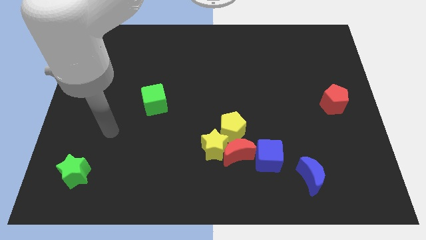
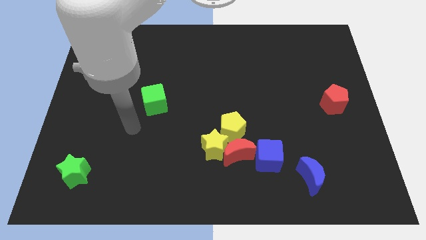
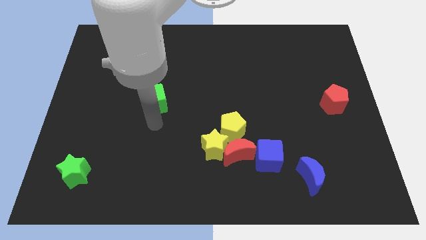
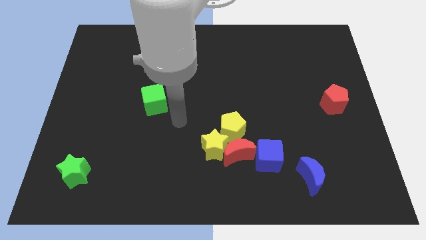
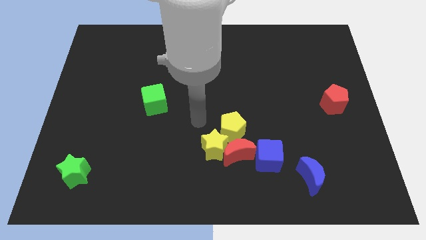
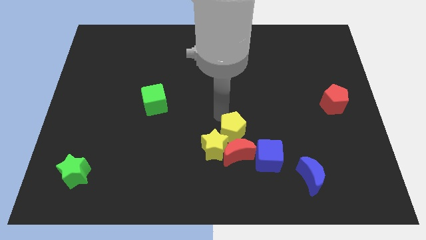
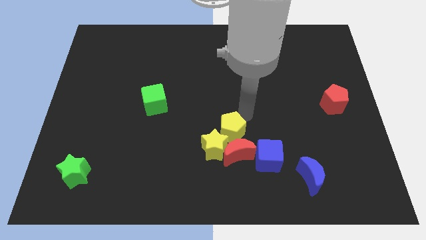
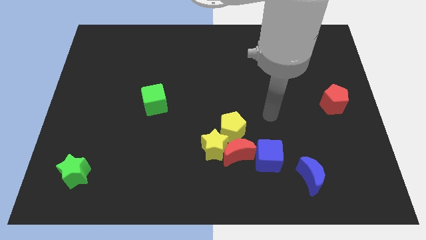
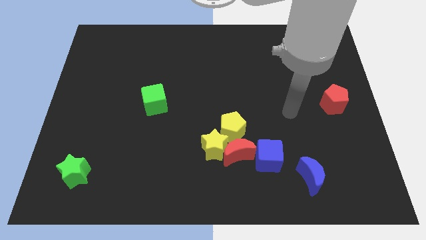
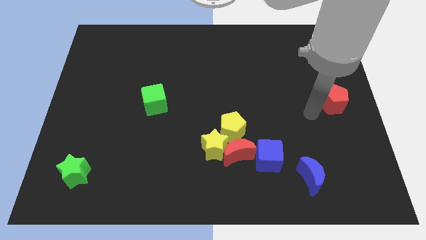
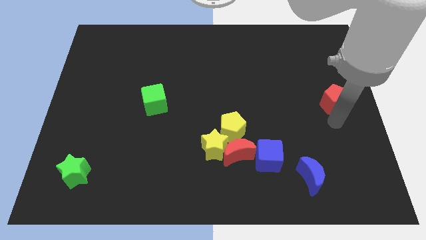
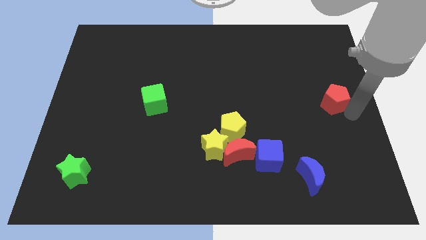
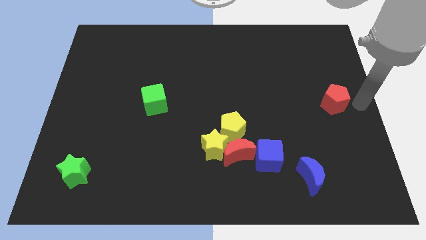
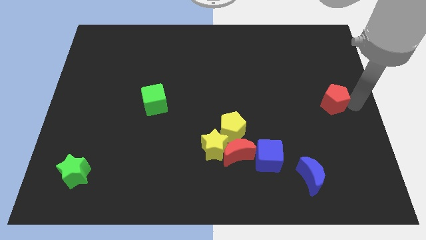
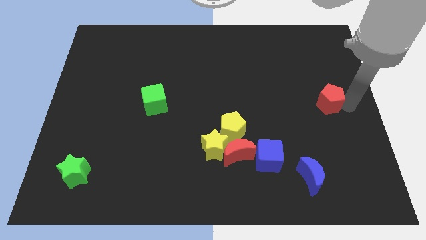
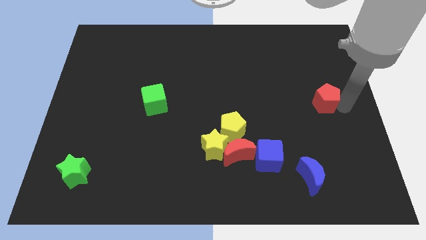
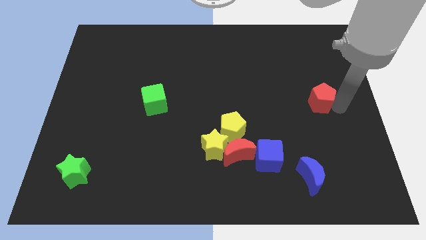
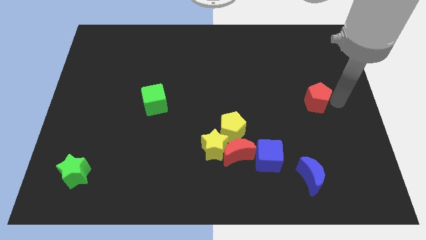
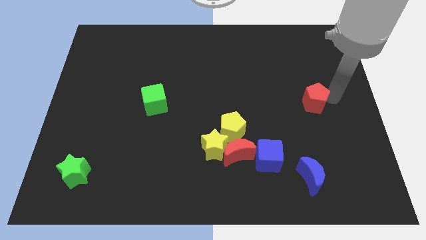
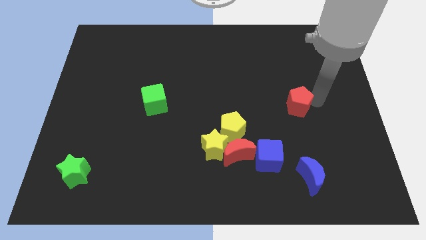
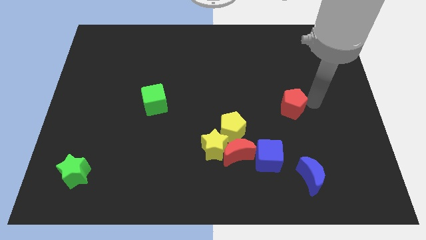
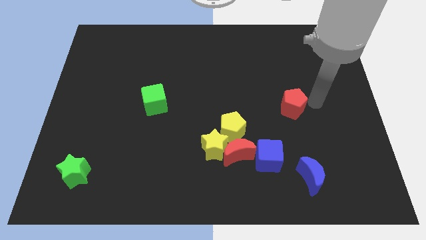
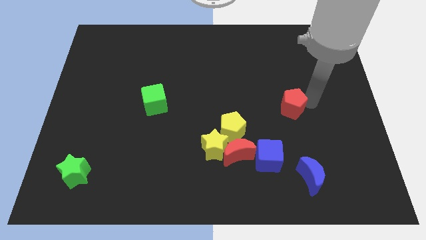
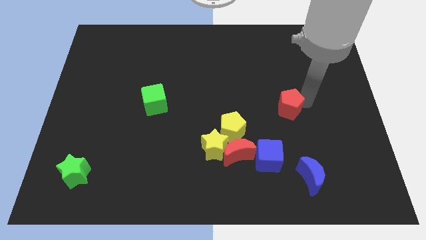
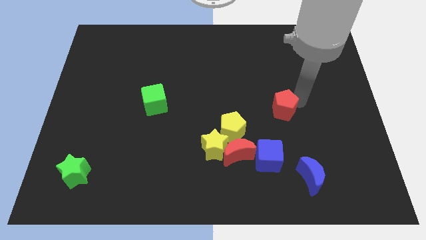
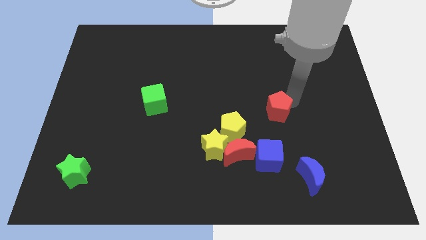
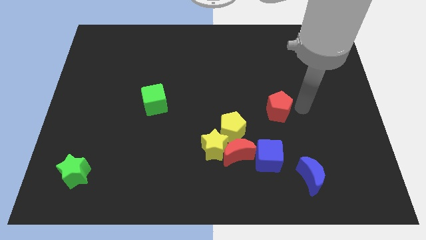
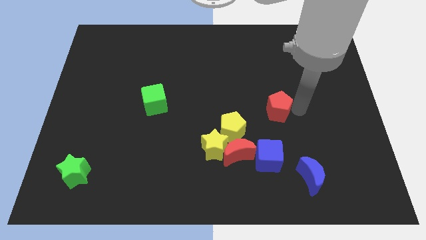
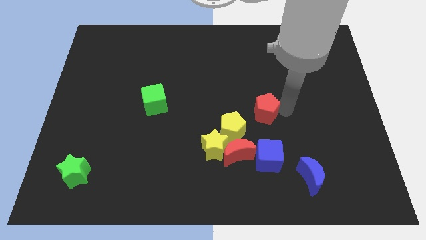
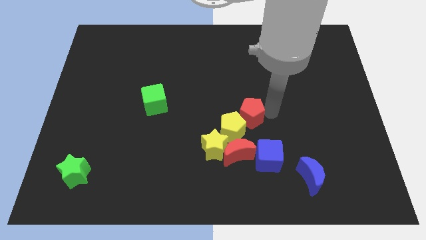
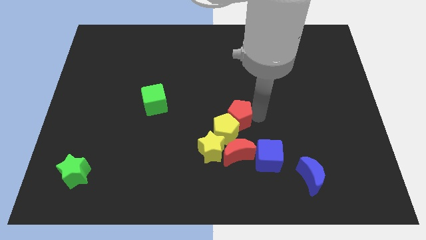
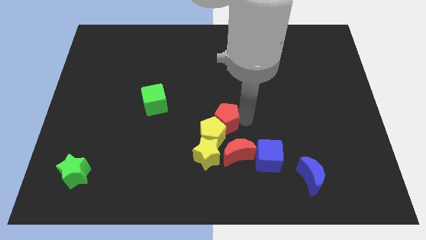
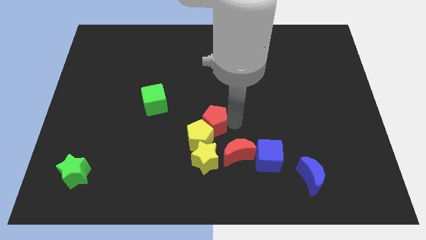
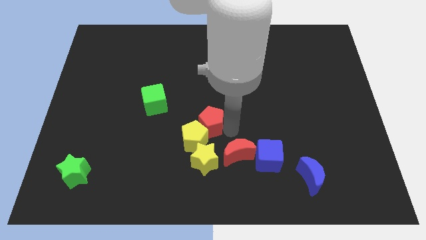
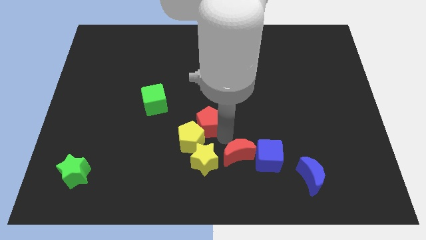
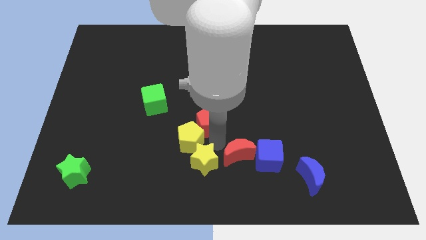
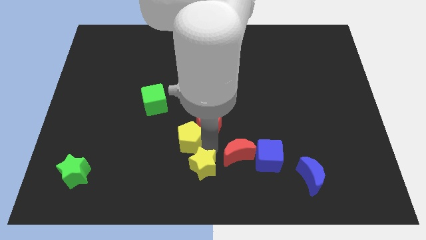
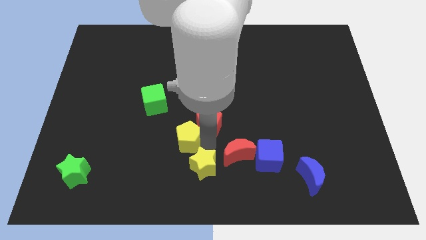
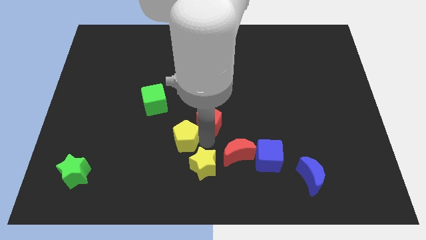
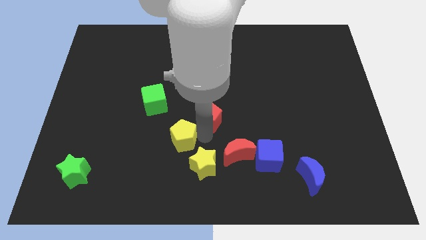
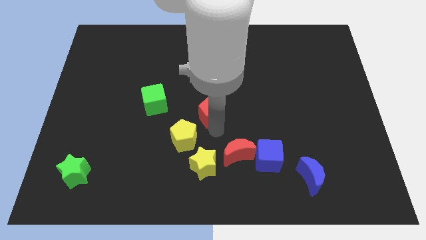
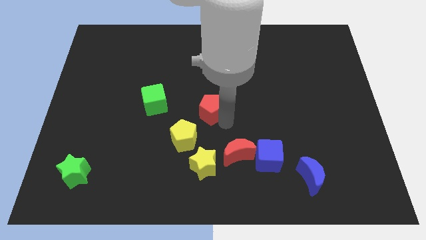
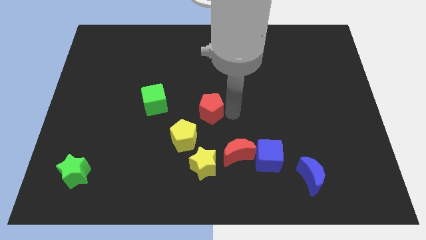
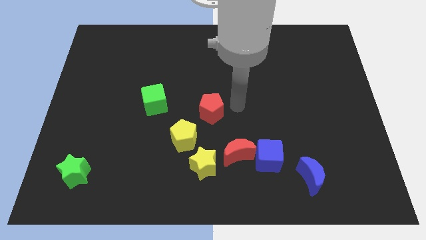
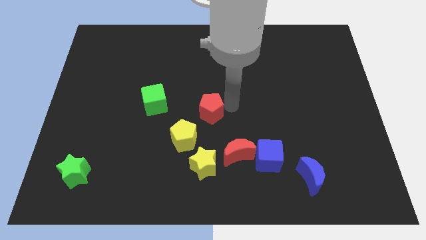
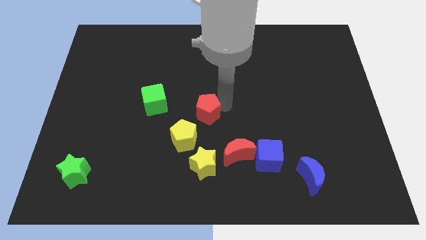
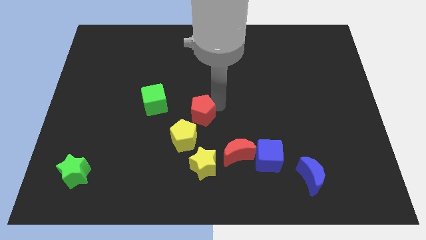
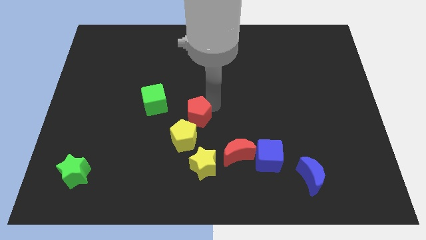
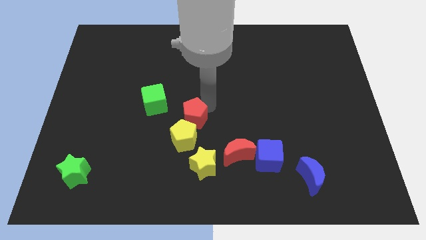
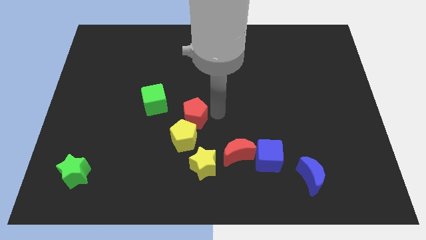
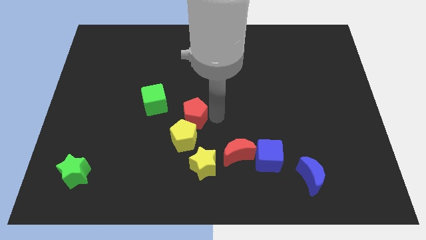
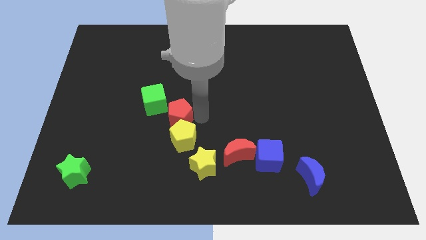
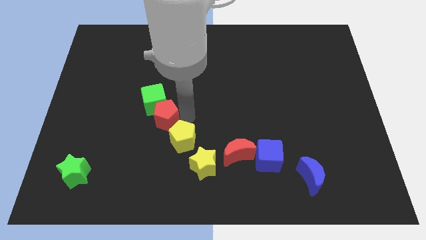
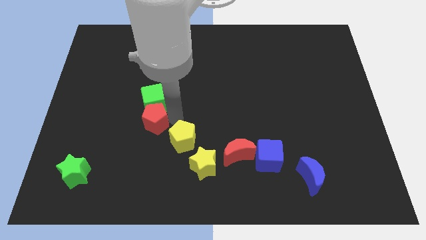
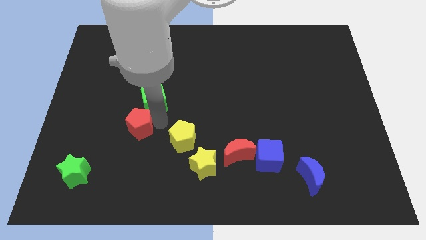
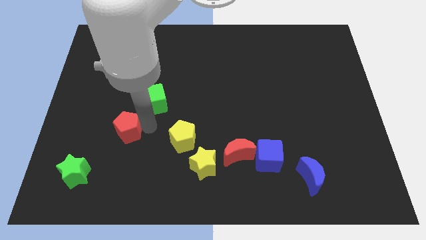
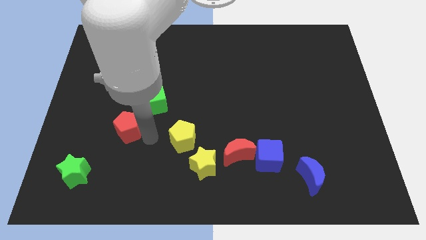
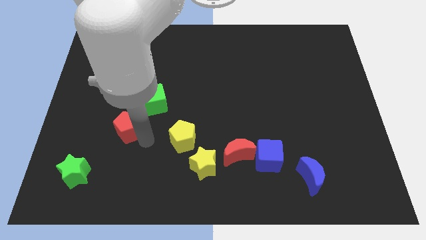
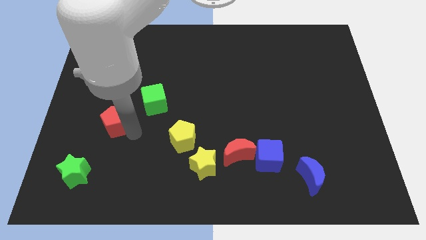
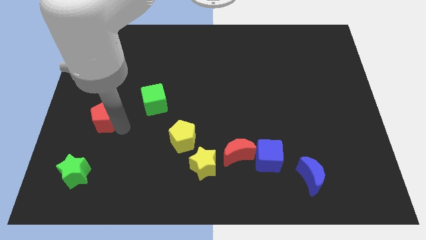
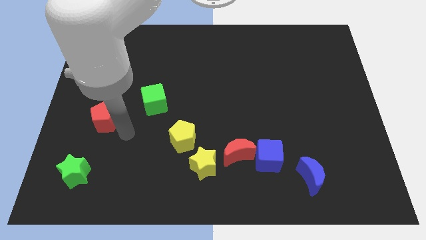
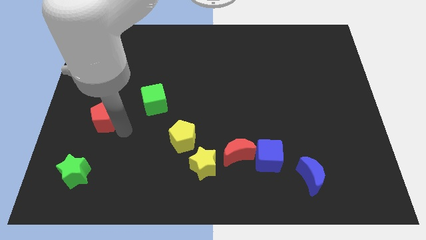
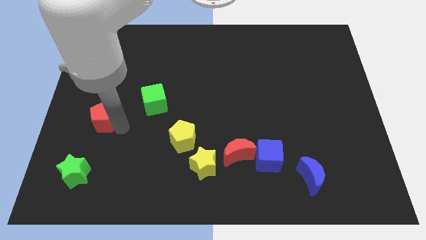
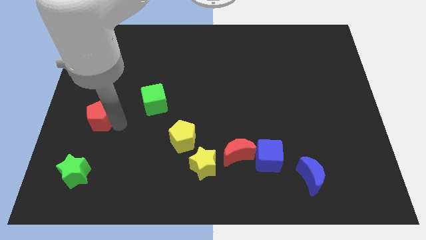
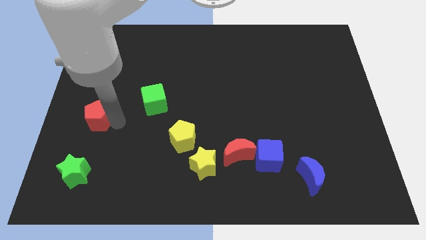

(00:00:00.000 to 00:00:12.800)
slide the red pentagon to the left side

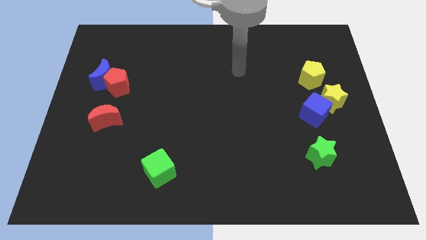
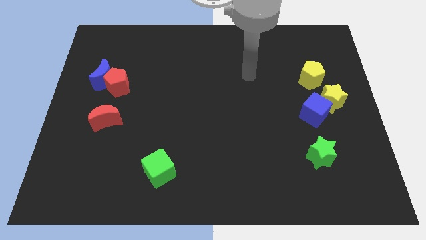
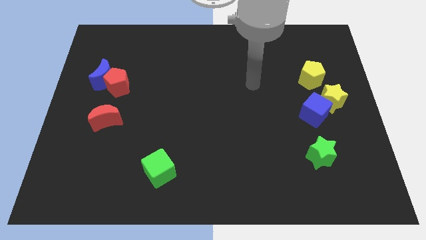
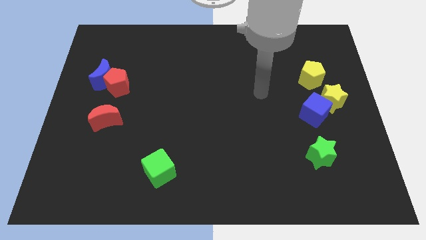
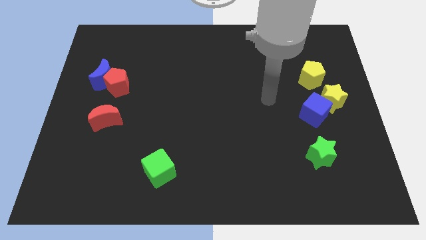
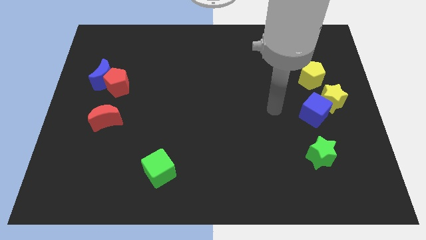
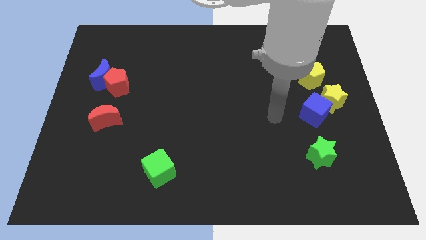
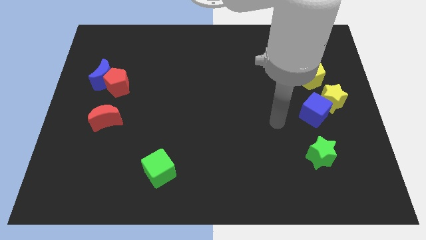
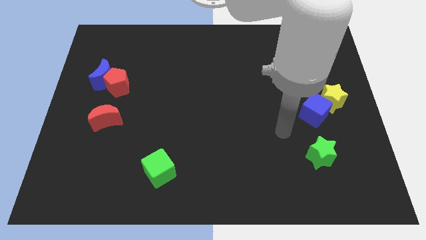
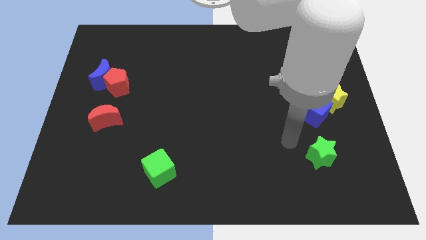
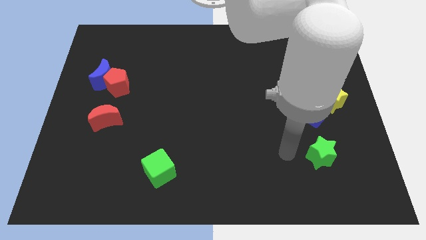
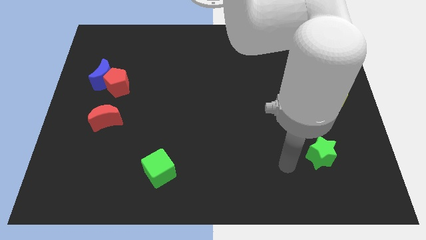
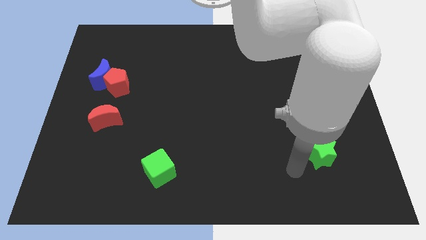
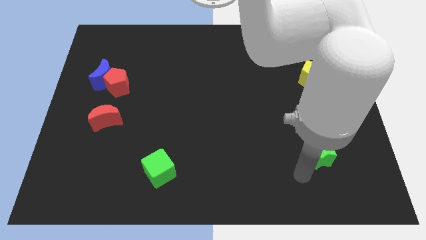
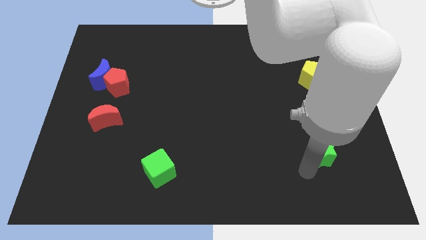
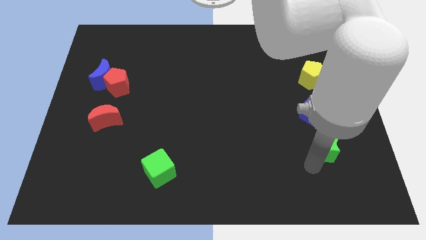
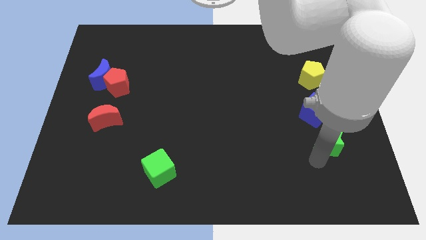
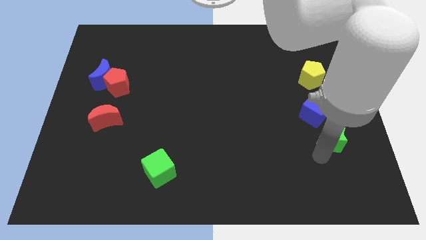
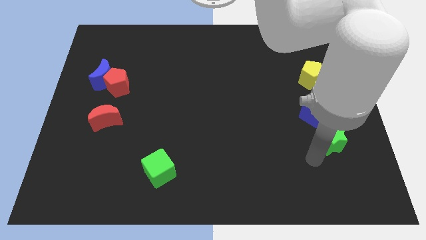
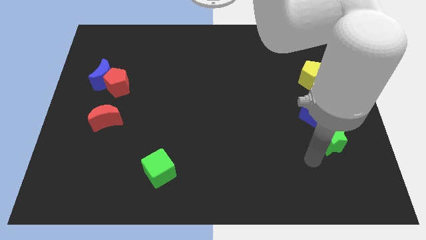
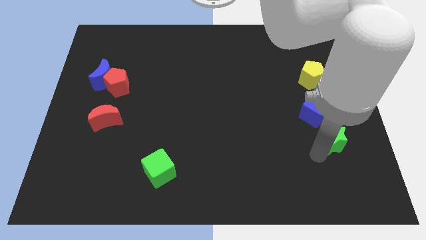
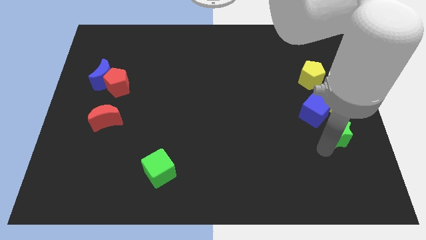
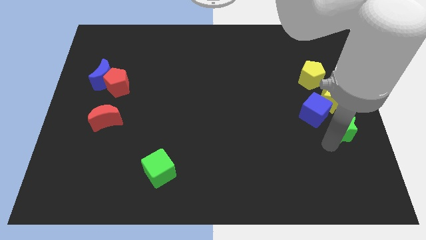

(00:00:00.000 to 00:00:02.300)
put the green star to the right side
